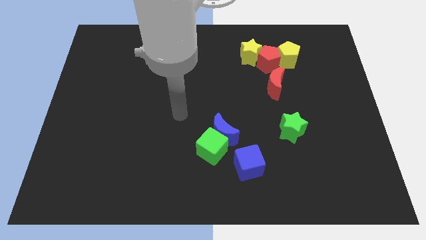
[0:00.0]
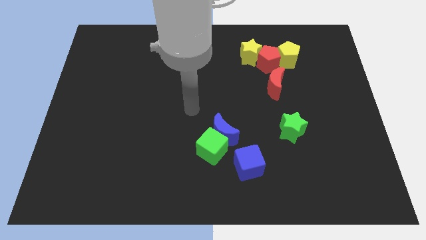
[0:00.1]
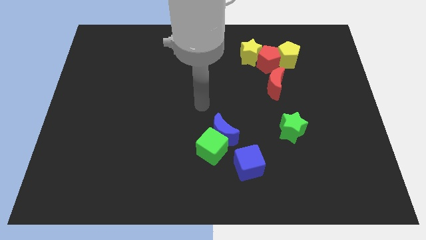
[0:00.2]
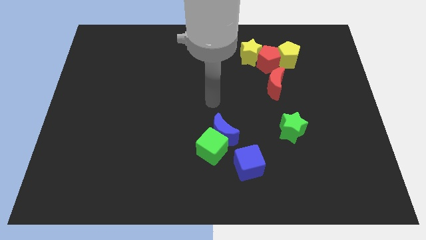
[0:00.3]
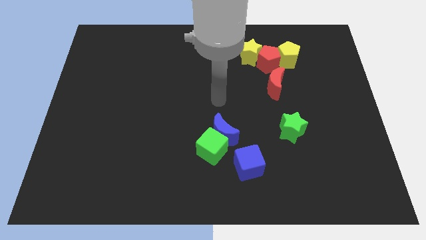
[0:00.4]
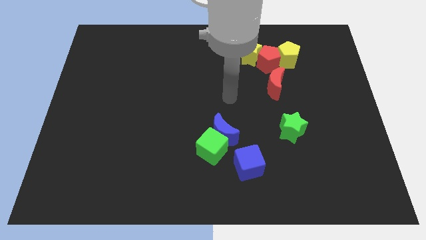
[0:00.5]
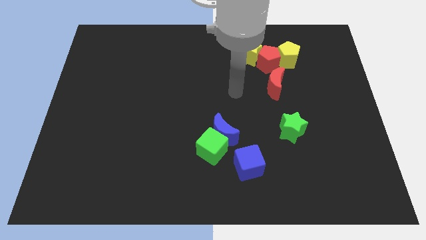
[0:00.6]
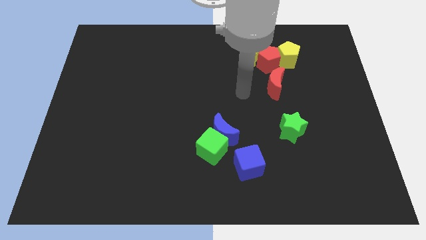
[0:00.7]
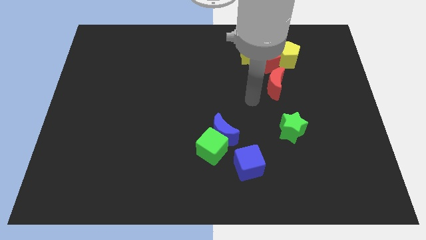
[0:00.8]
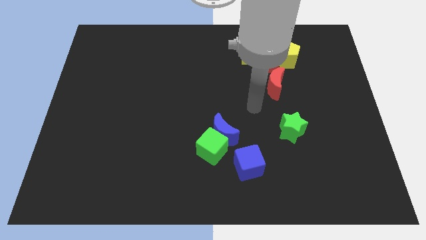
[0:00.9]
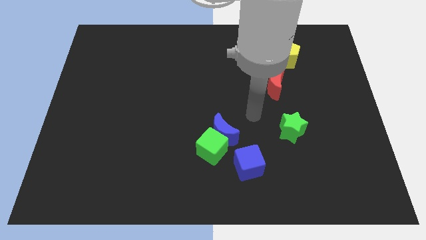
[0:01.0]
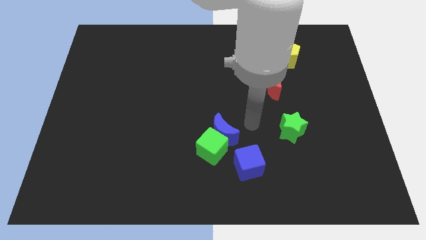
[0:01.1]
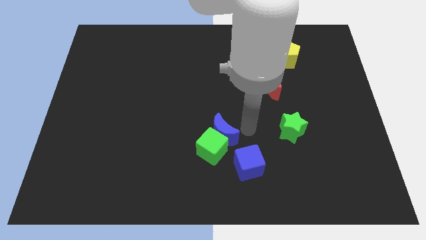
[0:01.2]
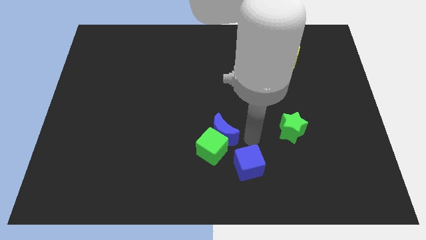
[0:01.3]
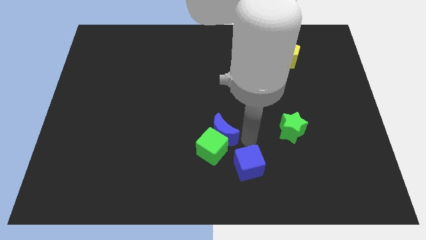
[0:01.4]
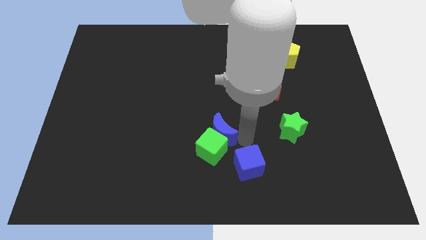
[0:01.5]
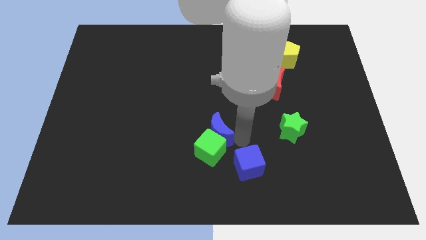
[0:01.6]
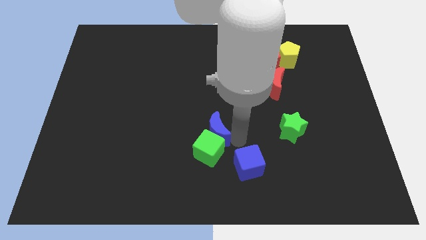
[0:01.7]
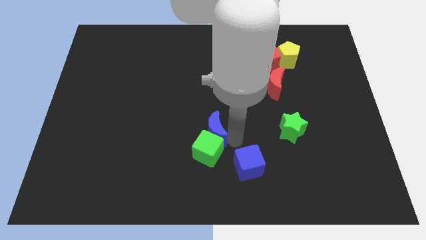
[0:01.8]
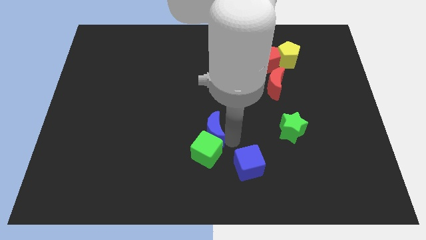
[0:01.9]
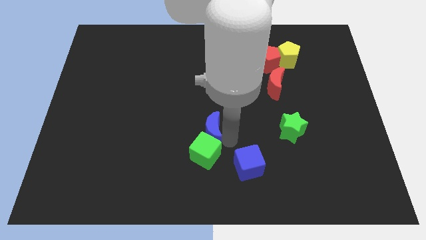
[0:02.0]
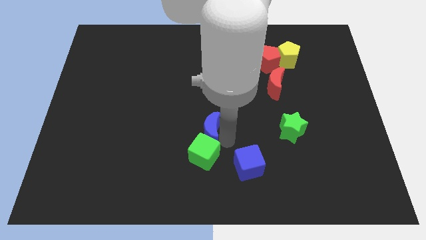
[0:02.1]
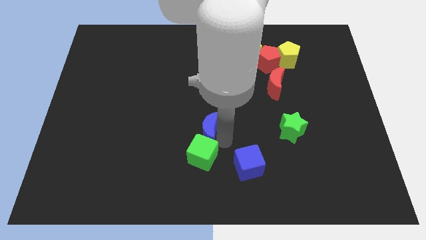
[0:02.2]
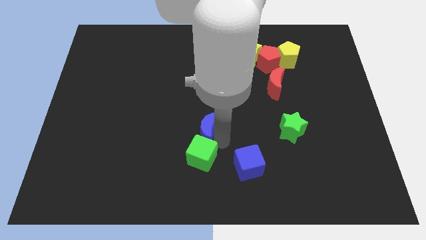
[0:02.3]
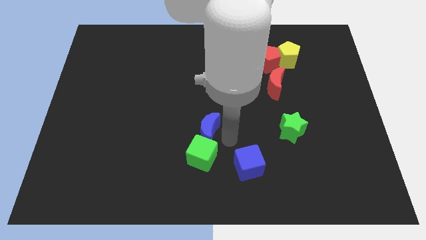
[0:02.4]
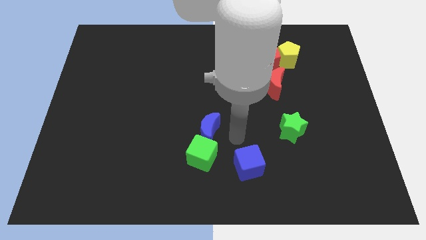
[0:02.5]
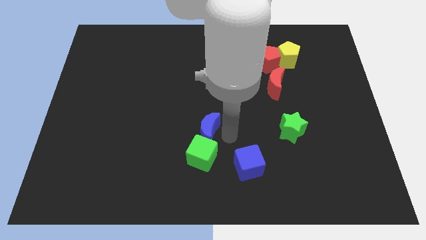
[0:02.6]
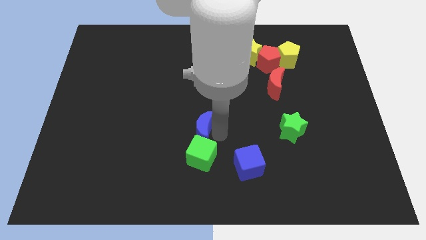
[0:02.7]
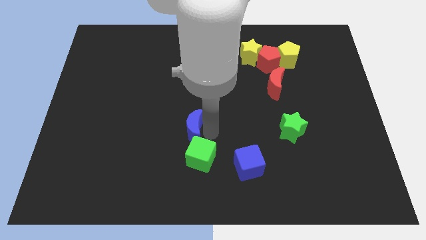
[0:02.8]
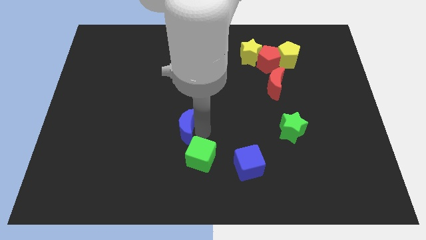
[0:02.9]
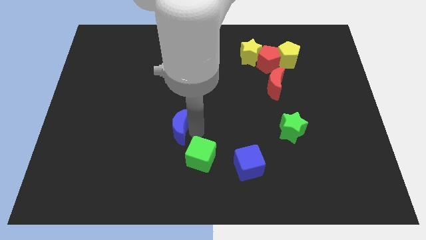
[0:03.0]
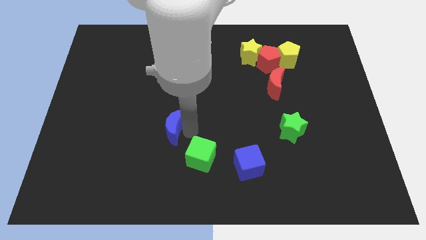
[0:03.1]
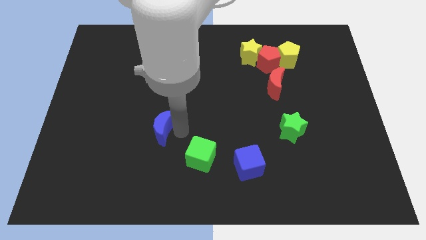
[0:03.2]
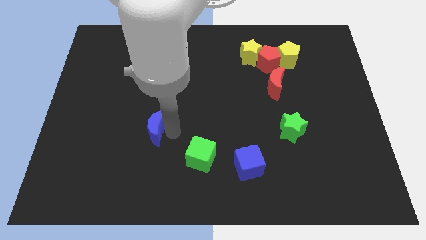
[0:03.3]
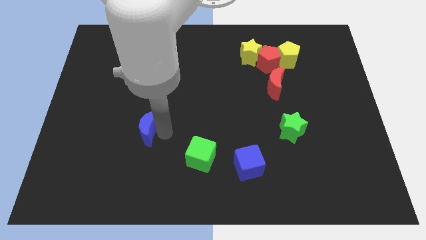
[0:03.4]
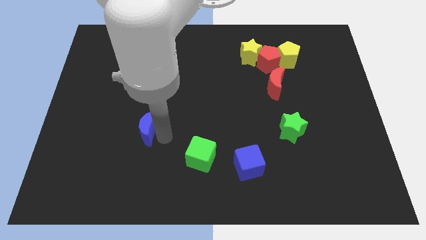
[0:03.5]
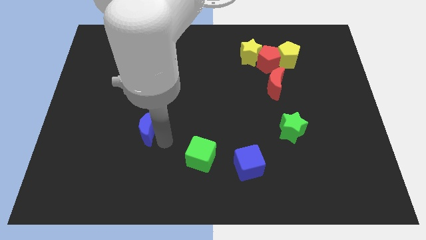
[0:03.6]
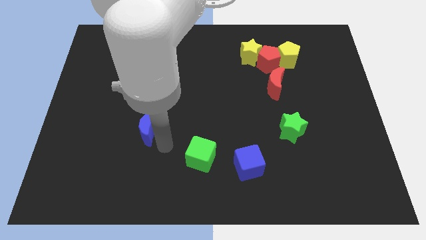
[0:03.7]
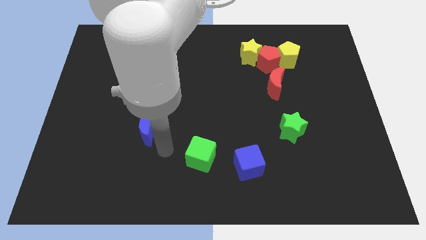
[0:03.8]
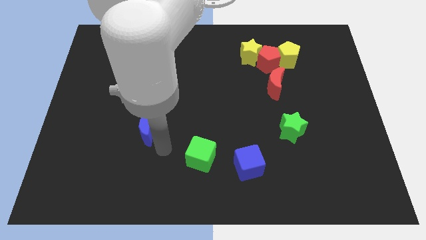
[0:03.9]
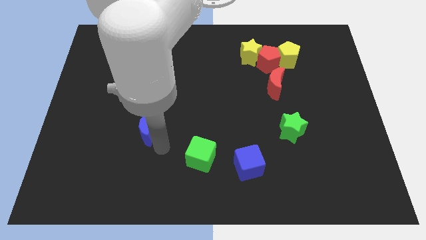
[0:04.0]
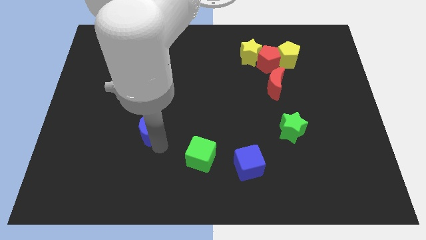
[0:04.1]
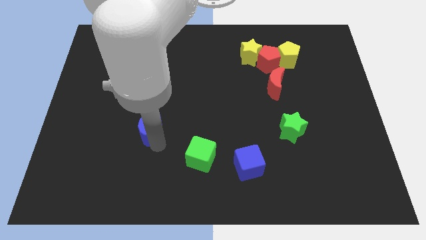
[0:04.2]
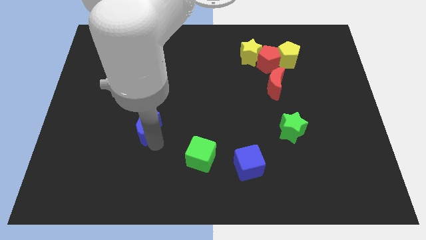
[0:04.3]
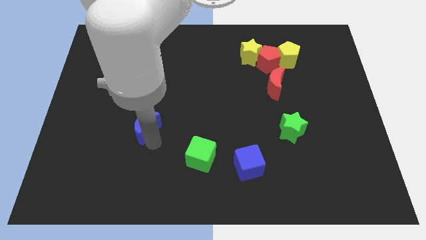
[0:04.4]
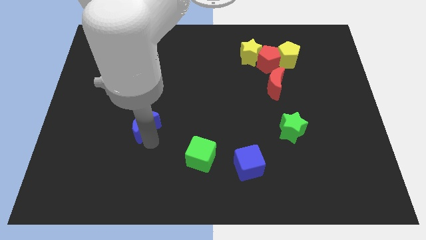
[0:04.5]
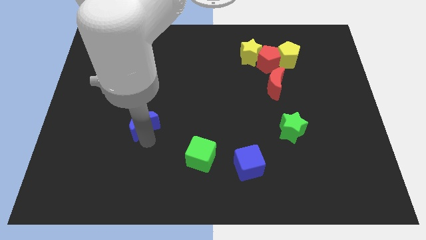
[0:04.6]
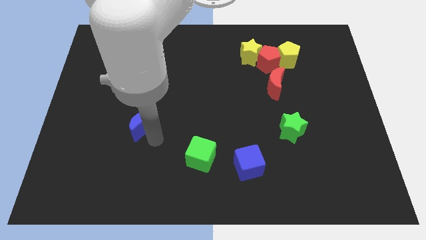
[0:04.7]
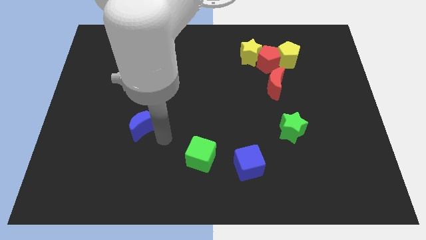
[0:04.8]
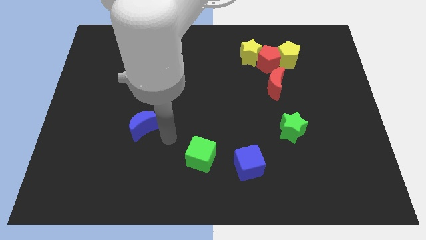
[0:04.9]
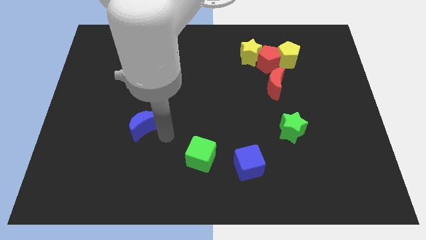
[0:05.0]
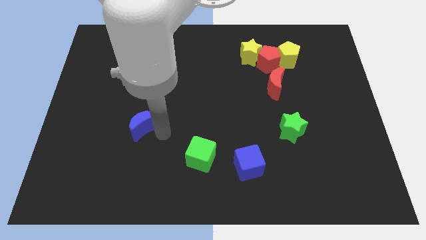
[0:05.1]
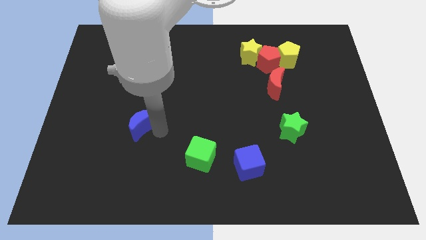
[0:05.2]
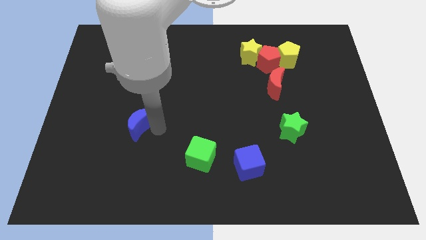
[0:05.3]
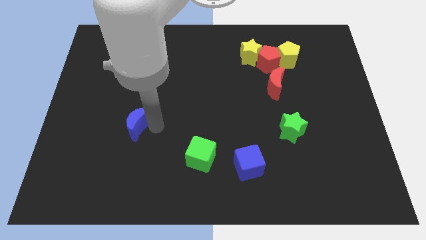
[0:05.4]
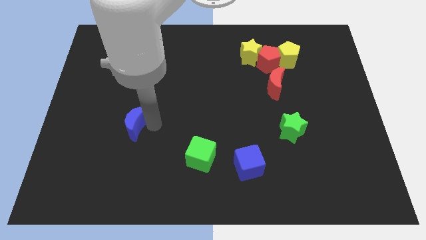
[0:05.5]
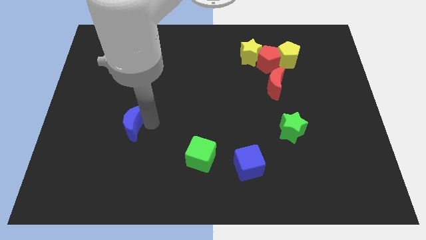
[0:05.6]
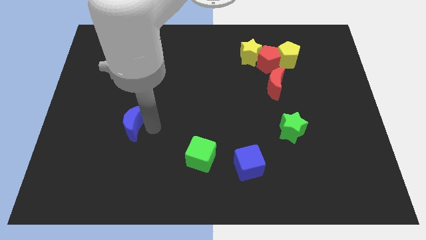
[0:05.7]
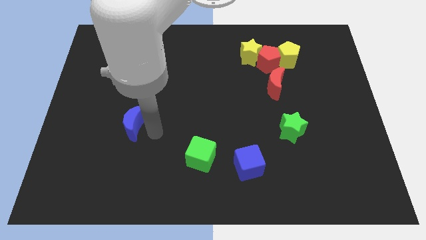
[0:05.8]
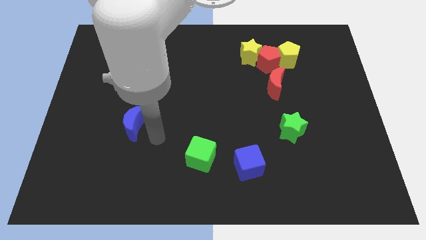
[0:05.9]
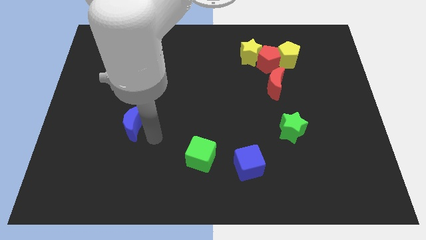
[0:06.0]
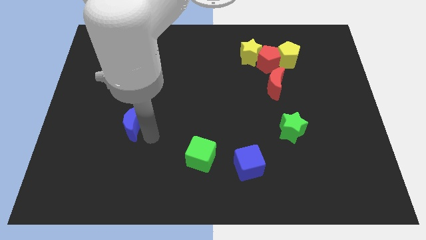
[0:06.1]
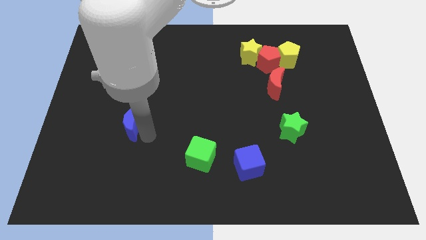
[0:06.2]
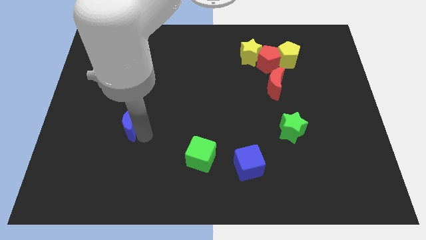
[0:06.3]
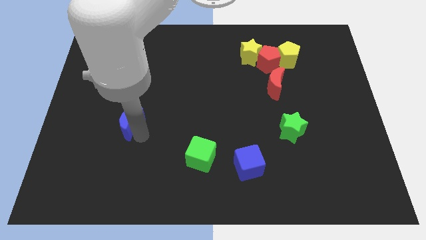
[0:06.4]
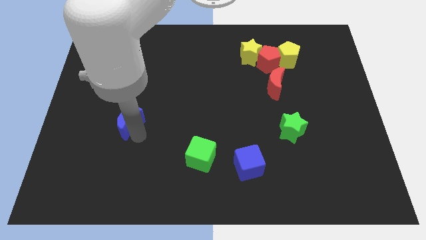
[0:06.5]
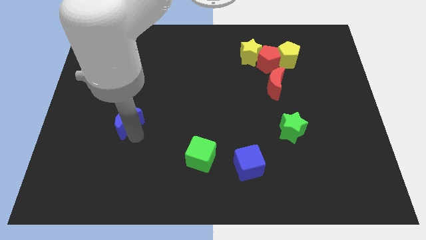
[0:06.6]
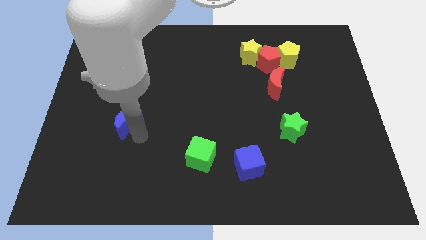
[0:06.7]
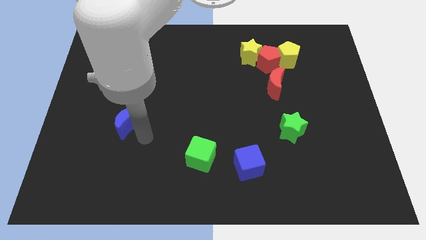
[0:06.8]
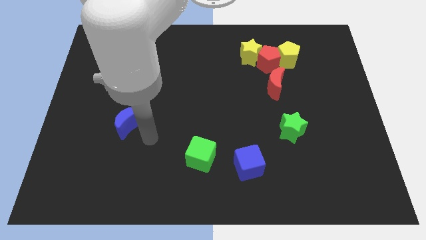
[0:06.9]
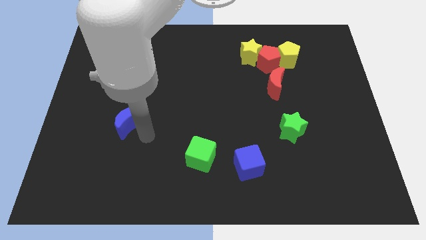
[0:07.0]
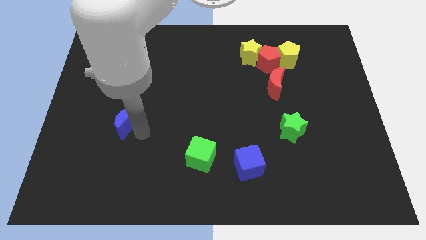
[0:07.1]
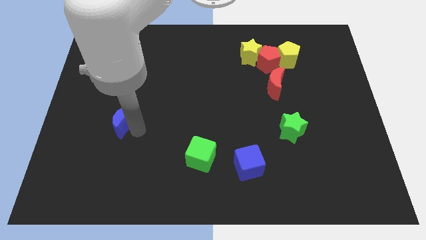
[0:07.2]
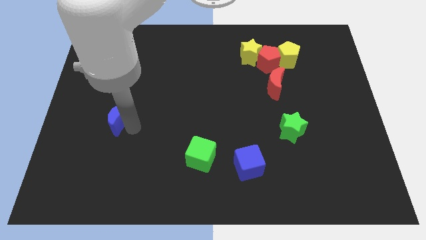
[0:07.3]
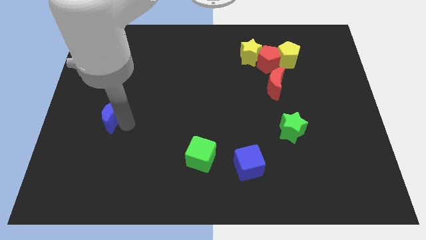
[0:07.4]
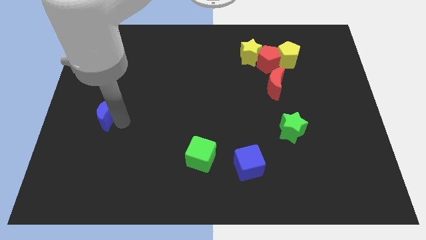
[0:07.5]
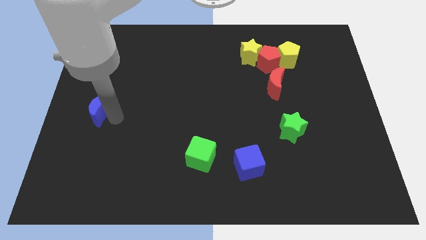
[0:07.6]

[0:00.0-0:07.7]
push the blue moon to the center left
